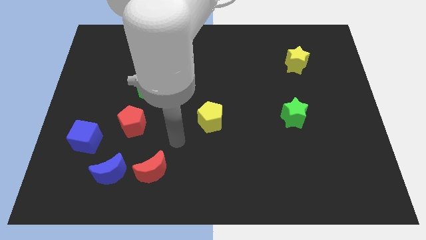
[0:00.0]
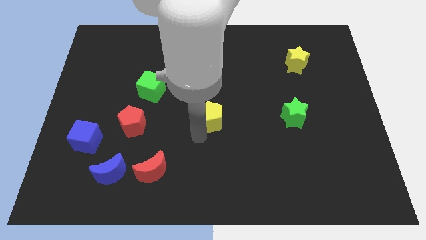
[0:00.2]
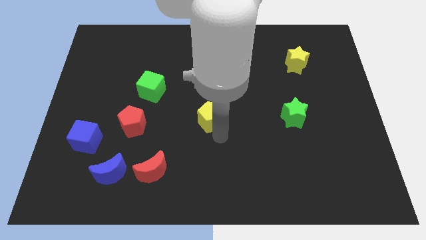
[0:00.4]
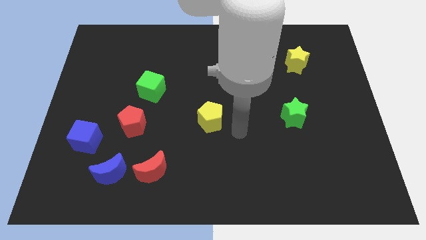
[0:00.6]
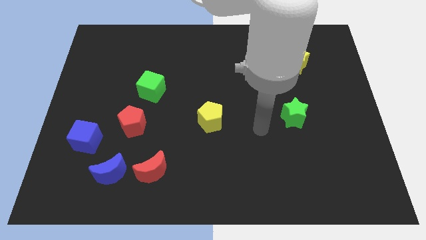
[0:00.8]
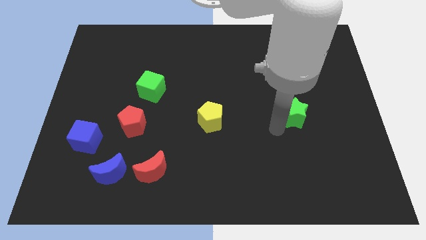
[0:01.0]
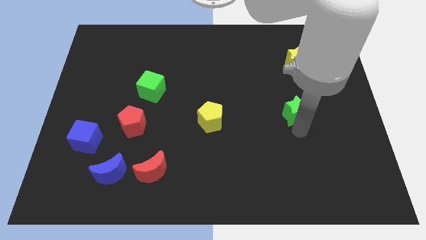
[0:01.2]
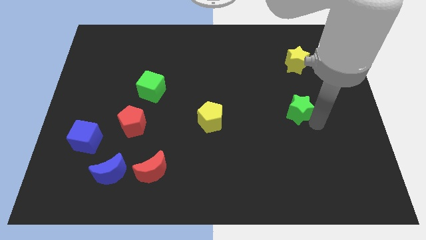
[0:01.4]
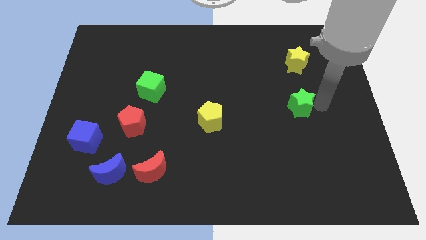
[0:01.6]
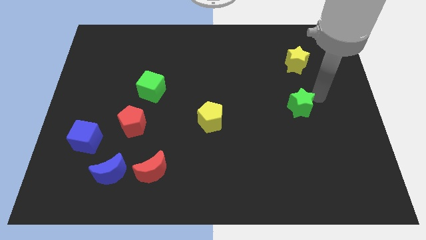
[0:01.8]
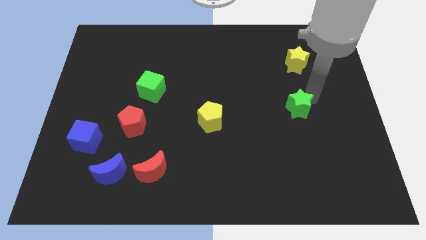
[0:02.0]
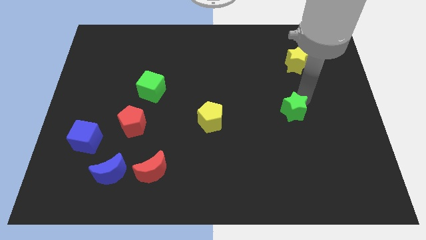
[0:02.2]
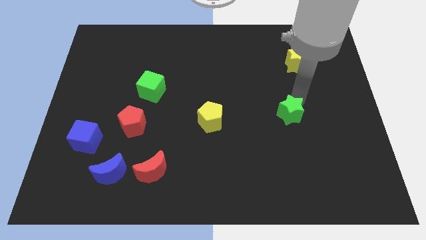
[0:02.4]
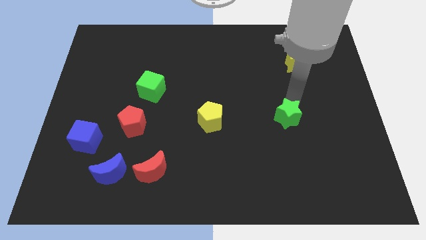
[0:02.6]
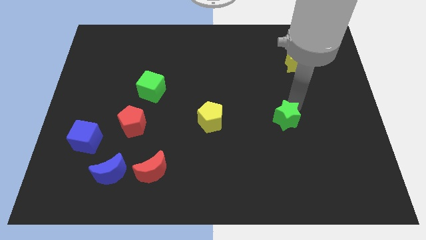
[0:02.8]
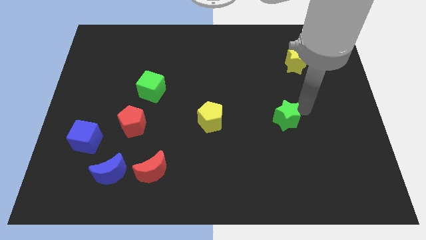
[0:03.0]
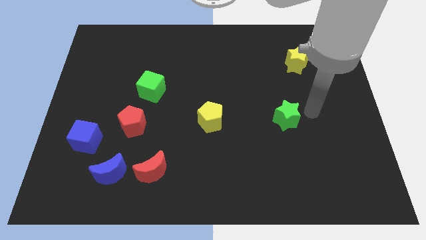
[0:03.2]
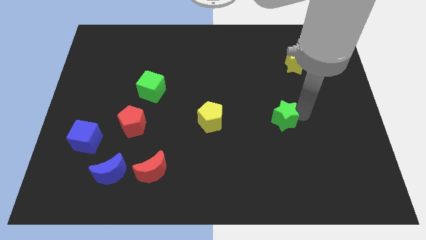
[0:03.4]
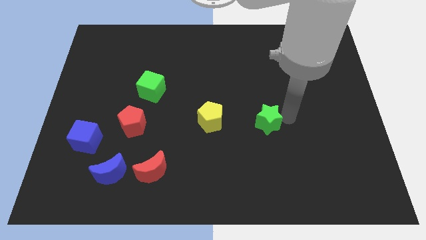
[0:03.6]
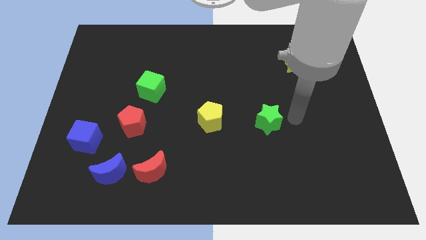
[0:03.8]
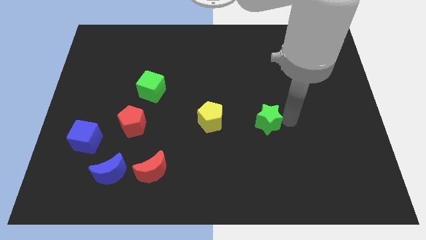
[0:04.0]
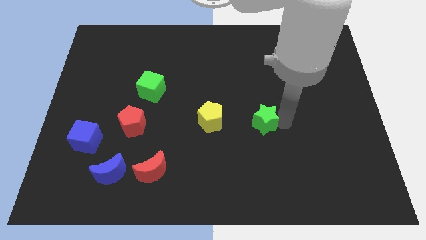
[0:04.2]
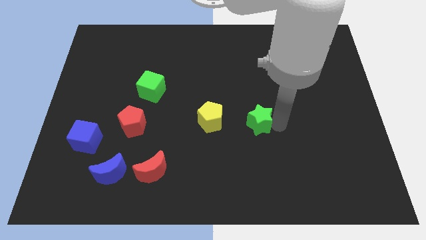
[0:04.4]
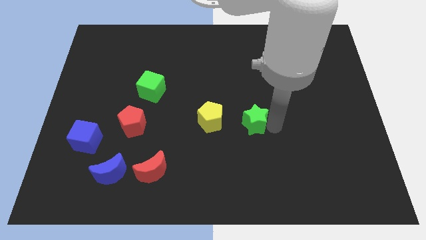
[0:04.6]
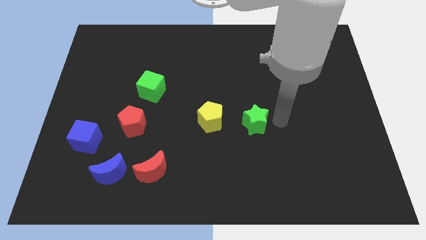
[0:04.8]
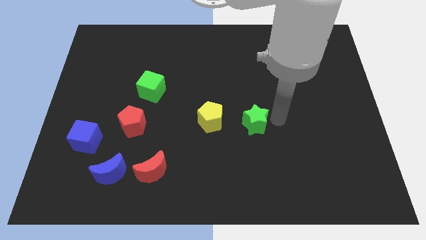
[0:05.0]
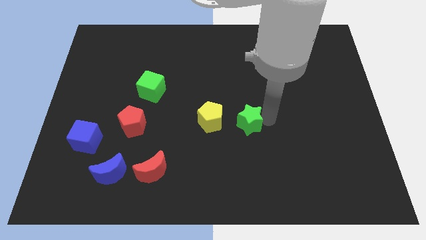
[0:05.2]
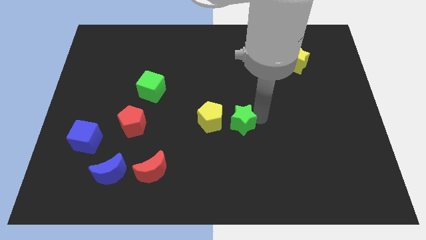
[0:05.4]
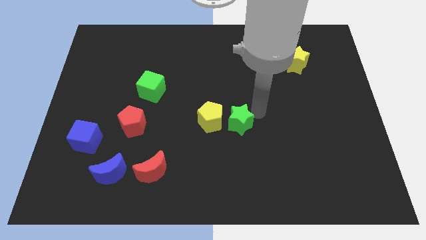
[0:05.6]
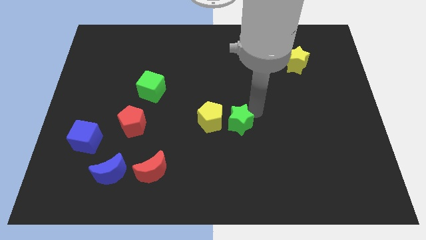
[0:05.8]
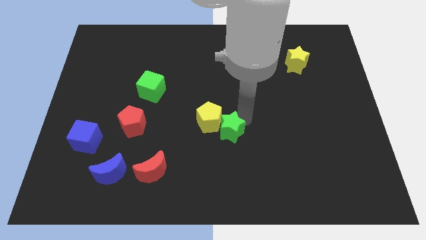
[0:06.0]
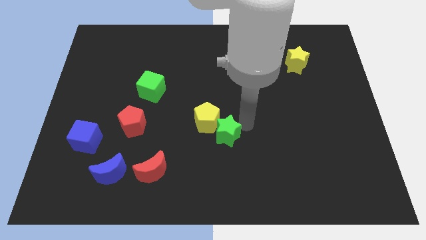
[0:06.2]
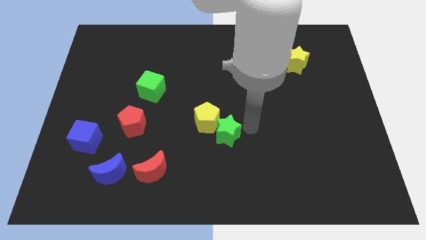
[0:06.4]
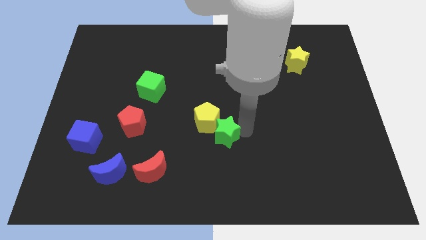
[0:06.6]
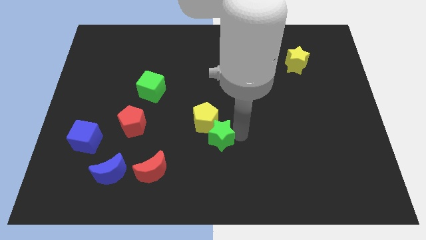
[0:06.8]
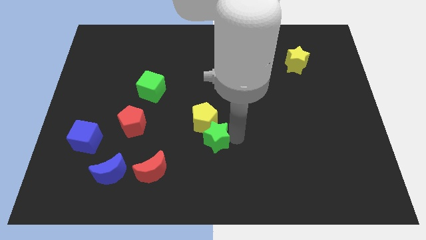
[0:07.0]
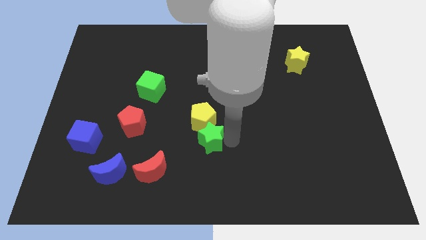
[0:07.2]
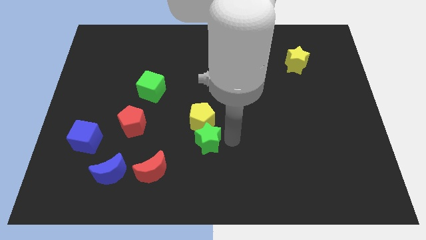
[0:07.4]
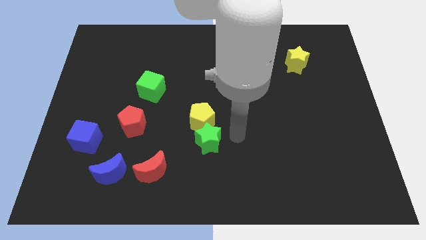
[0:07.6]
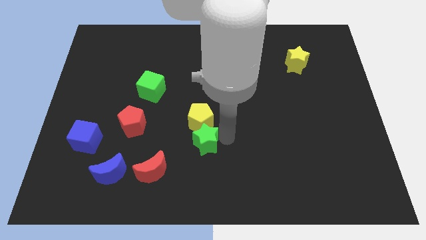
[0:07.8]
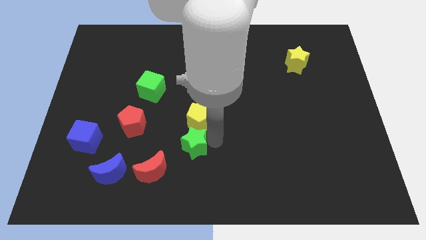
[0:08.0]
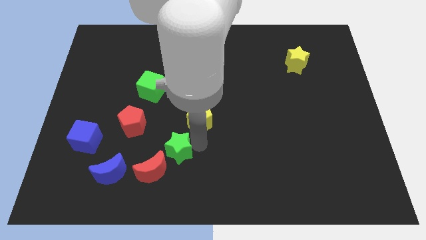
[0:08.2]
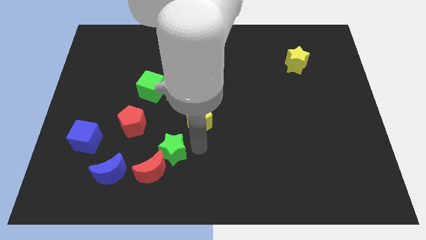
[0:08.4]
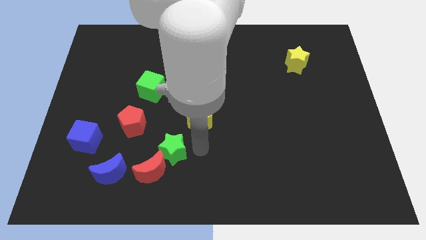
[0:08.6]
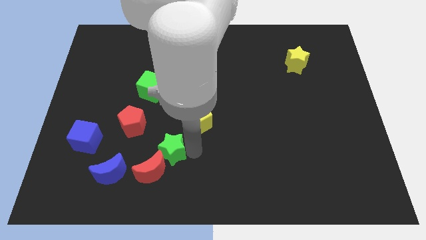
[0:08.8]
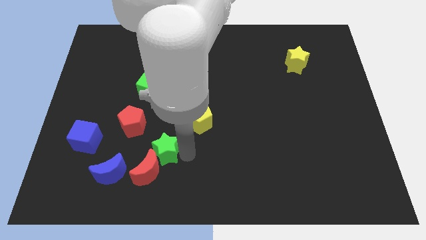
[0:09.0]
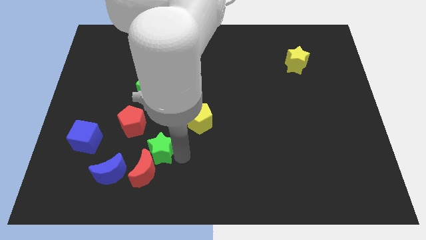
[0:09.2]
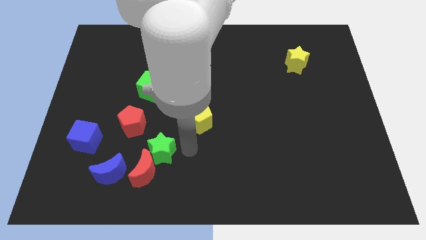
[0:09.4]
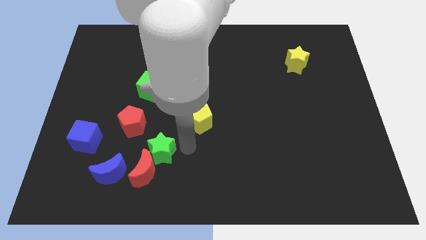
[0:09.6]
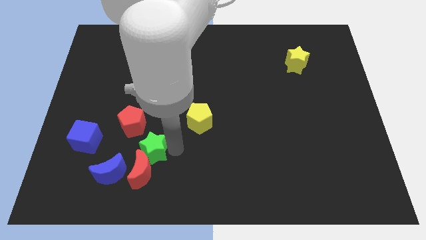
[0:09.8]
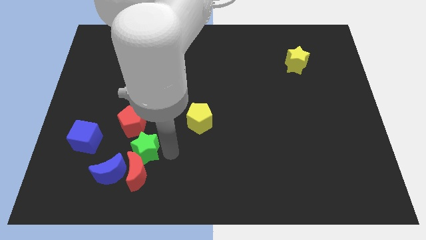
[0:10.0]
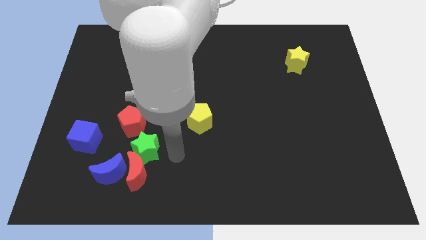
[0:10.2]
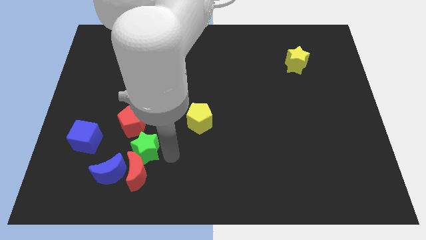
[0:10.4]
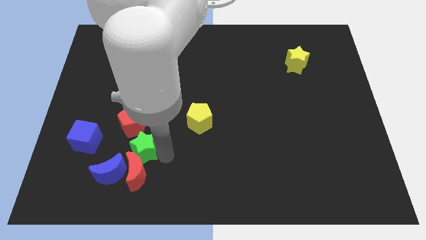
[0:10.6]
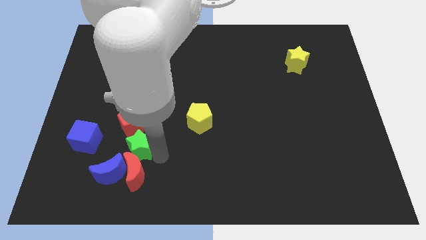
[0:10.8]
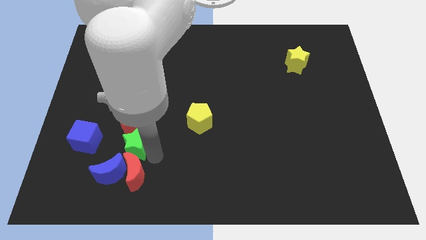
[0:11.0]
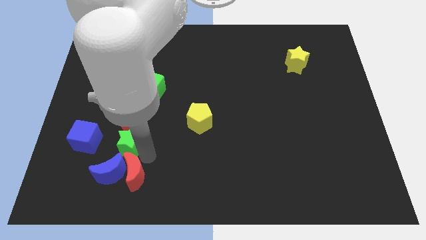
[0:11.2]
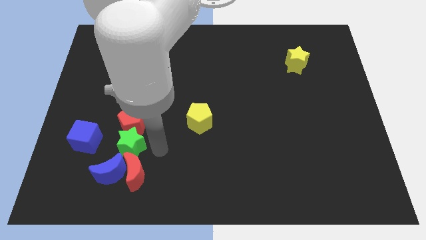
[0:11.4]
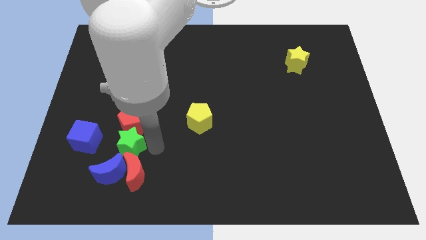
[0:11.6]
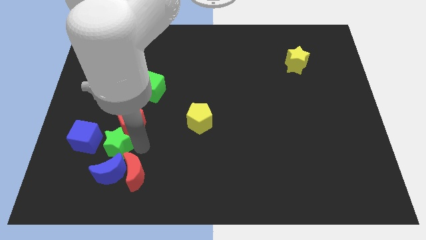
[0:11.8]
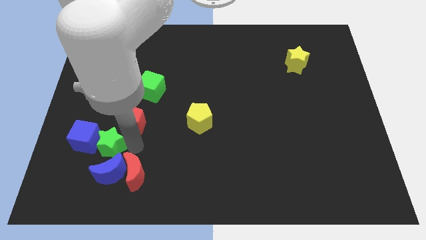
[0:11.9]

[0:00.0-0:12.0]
move the green star to the blue cube

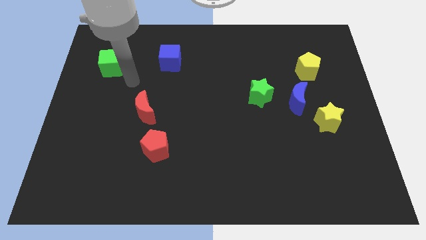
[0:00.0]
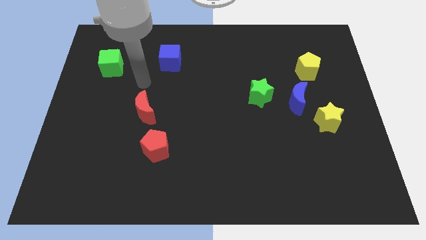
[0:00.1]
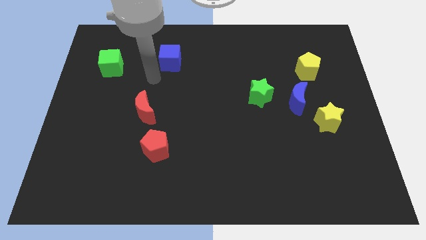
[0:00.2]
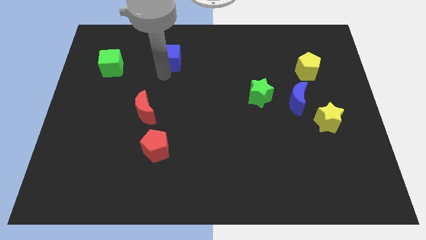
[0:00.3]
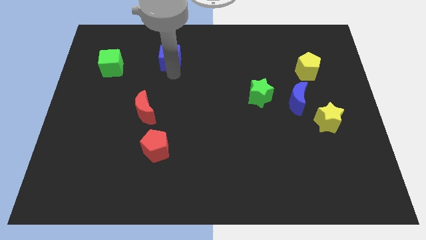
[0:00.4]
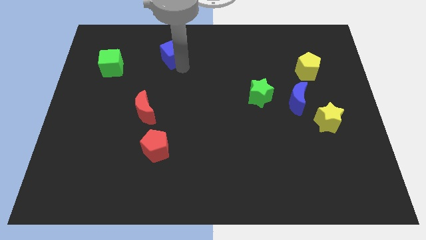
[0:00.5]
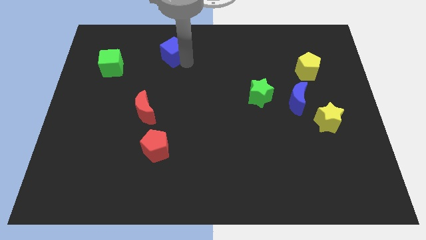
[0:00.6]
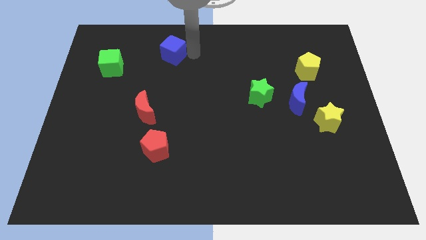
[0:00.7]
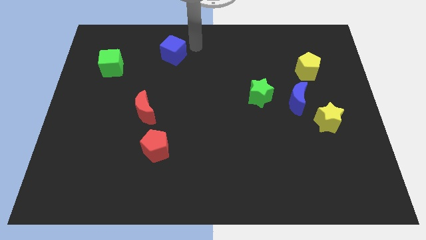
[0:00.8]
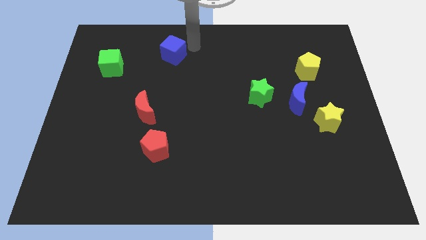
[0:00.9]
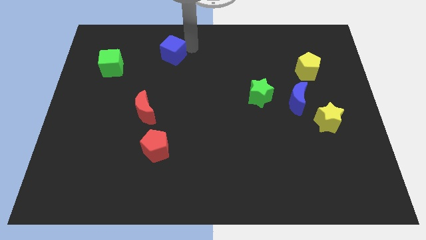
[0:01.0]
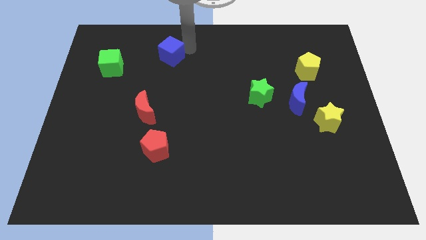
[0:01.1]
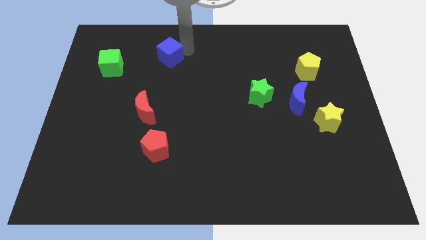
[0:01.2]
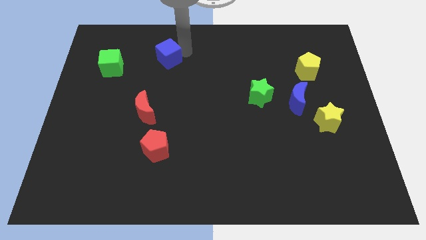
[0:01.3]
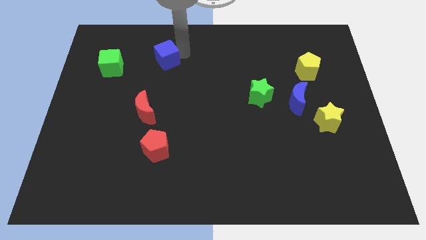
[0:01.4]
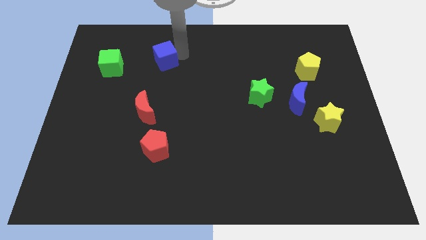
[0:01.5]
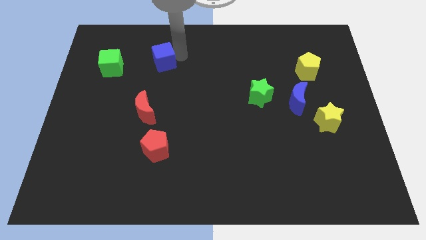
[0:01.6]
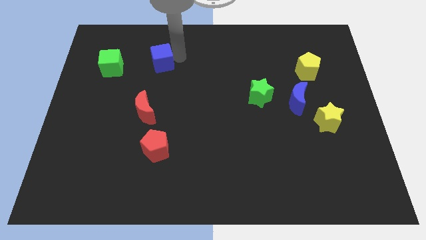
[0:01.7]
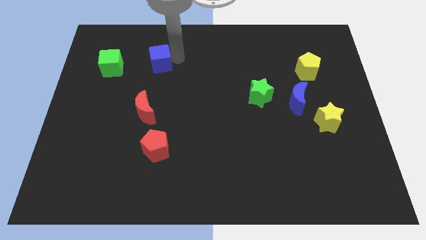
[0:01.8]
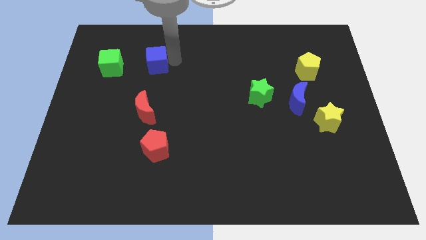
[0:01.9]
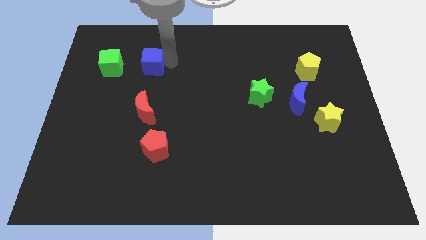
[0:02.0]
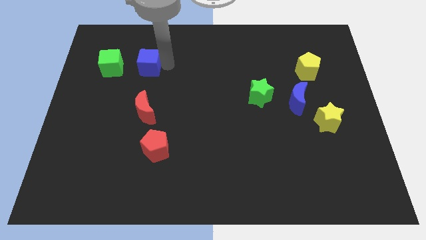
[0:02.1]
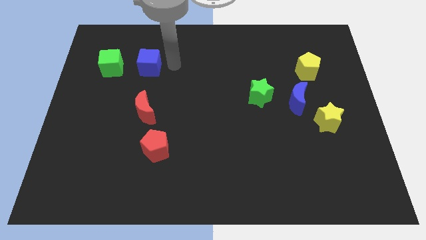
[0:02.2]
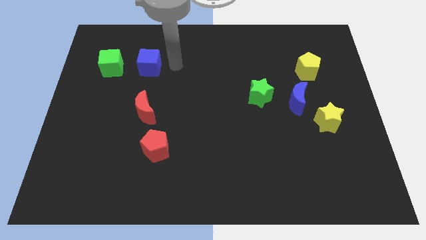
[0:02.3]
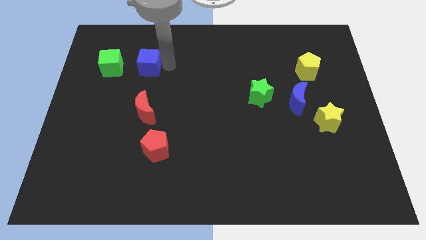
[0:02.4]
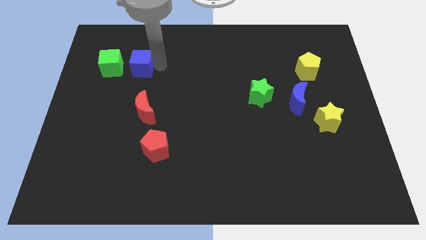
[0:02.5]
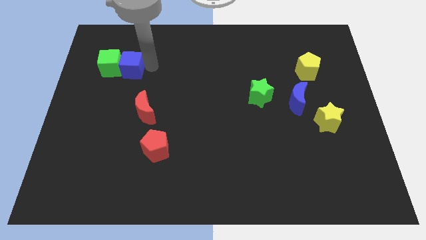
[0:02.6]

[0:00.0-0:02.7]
put the blue cube close to the green cube
